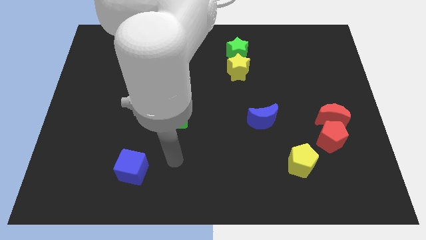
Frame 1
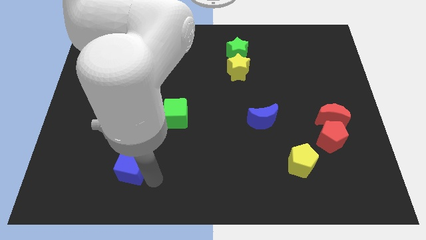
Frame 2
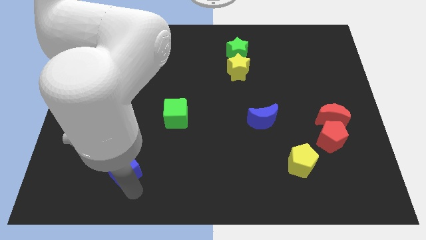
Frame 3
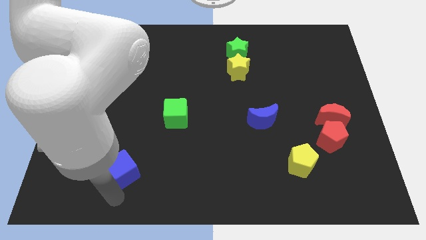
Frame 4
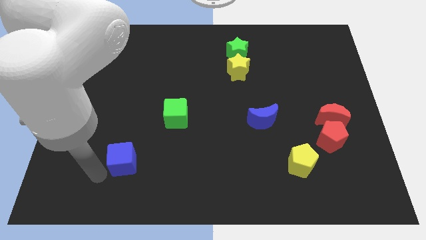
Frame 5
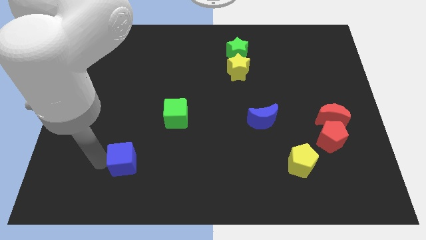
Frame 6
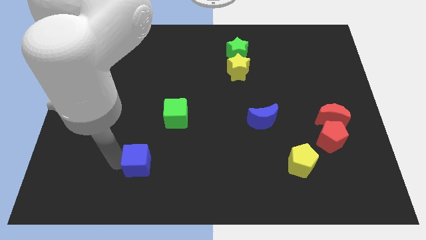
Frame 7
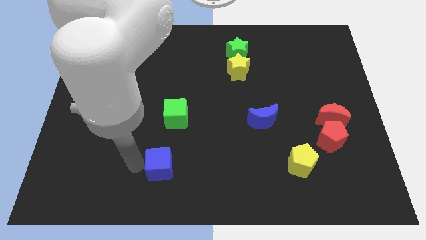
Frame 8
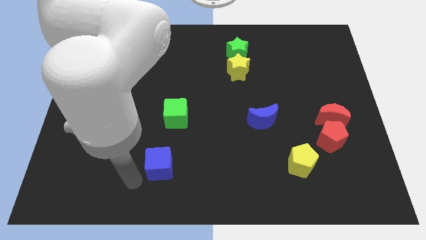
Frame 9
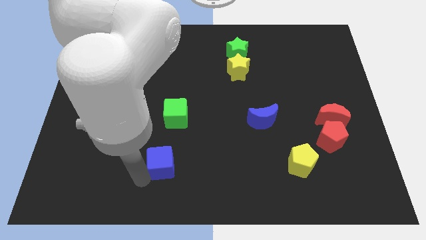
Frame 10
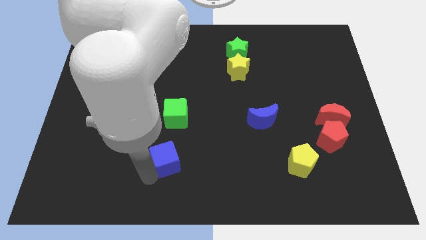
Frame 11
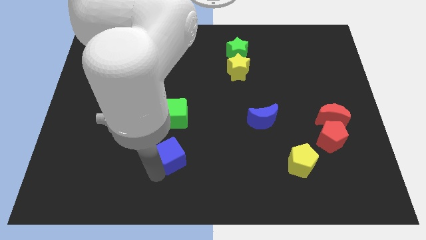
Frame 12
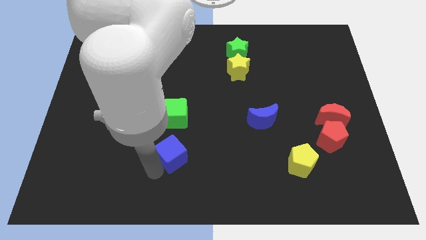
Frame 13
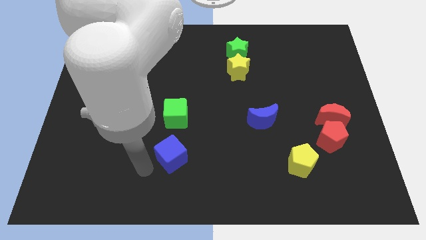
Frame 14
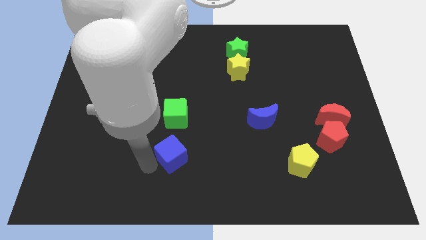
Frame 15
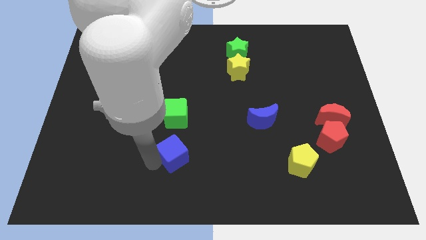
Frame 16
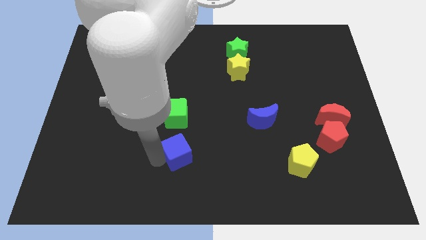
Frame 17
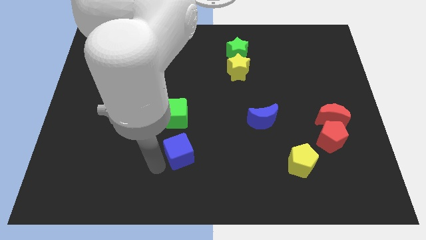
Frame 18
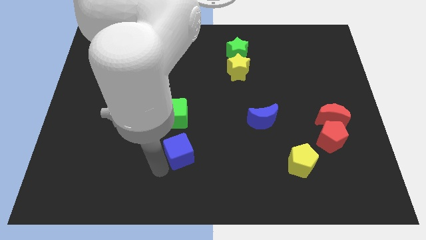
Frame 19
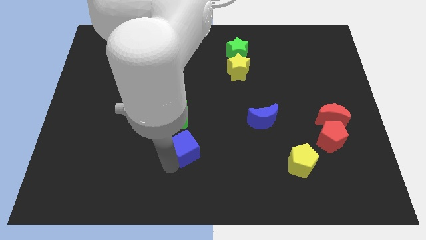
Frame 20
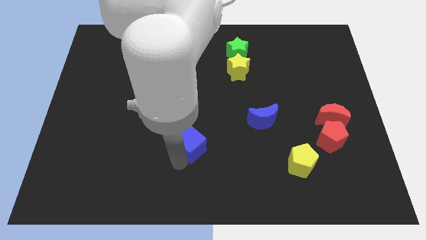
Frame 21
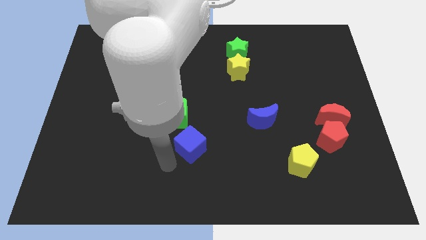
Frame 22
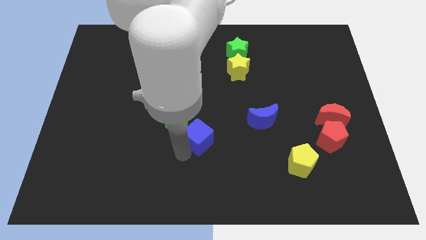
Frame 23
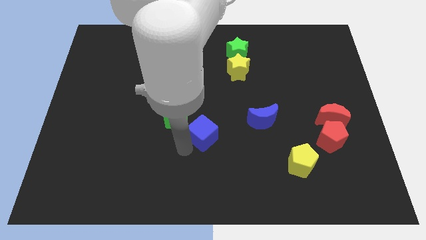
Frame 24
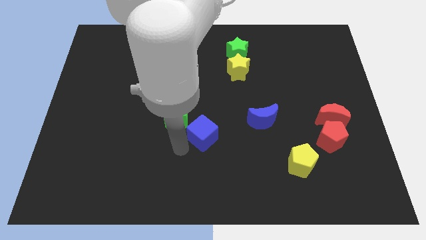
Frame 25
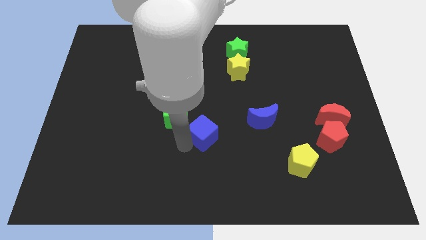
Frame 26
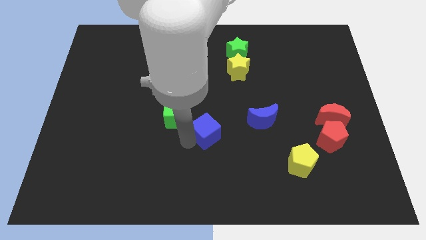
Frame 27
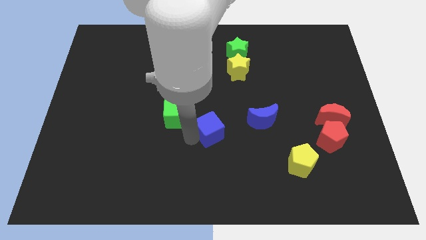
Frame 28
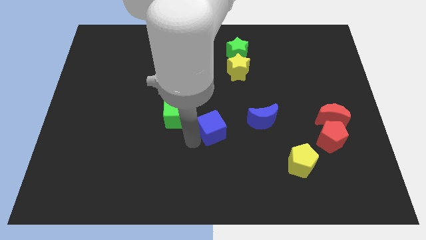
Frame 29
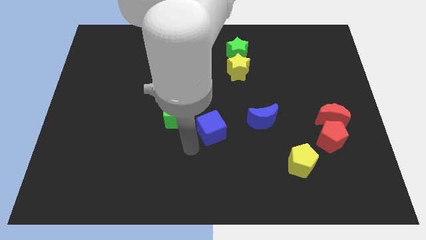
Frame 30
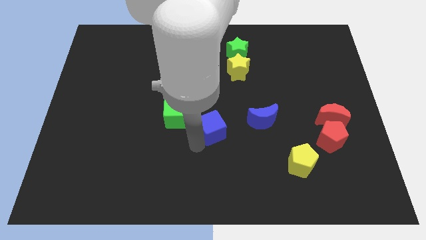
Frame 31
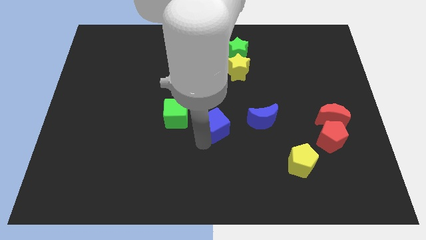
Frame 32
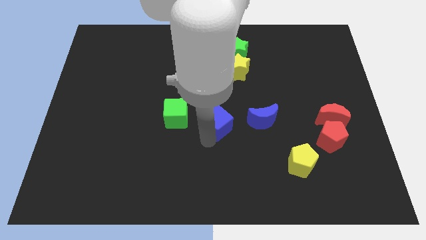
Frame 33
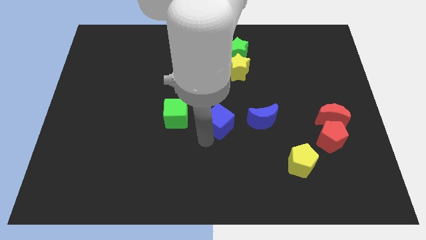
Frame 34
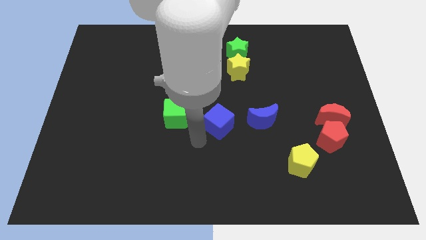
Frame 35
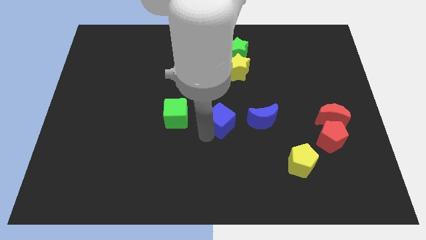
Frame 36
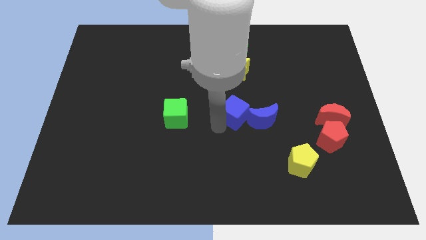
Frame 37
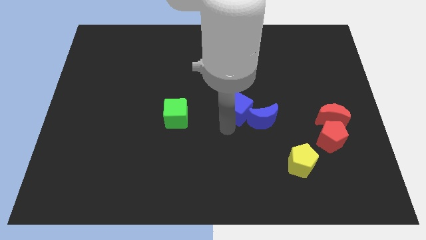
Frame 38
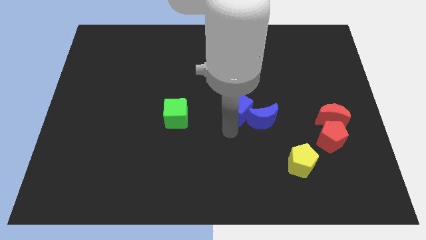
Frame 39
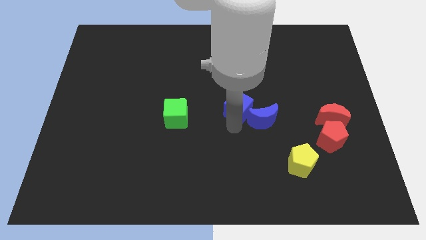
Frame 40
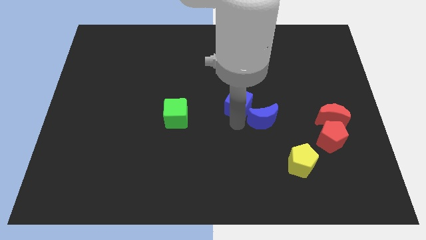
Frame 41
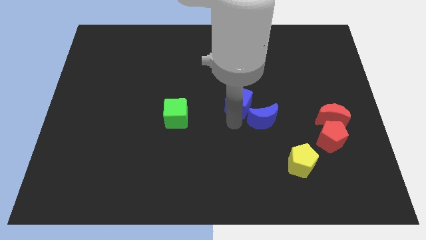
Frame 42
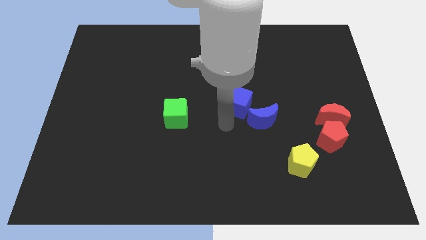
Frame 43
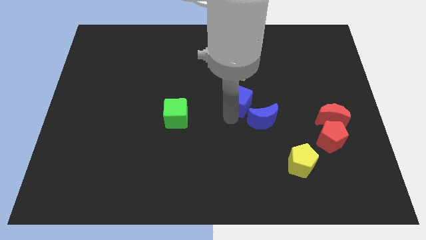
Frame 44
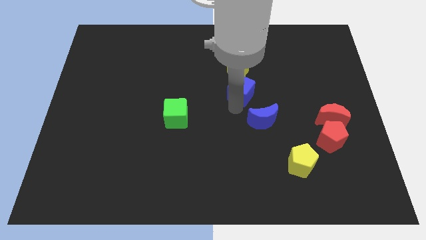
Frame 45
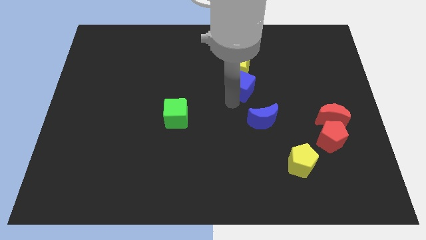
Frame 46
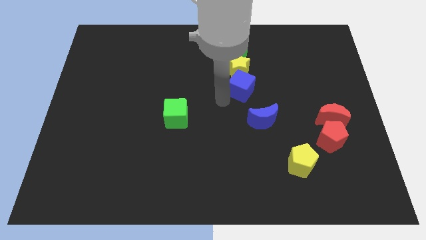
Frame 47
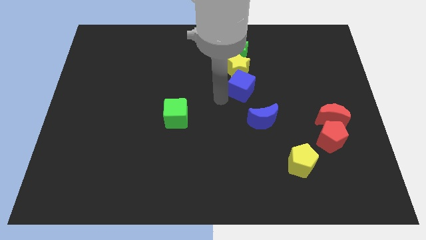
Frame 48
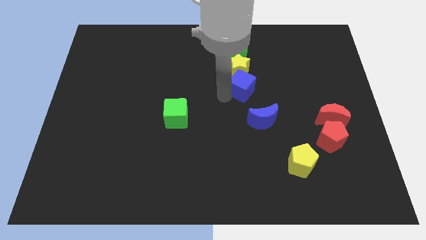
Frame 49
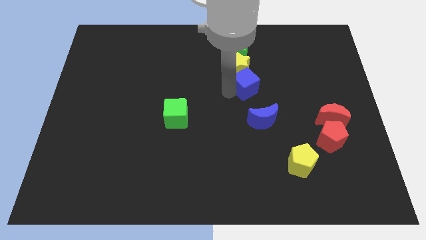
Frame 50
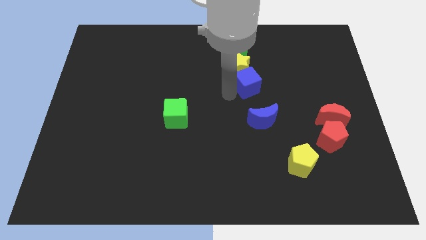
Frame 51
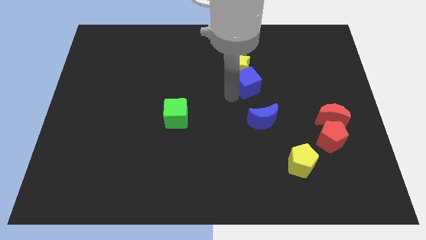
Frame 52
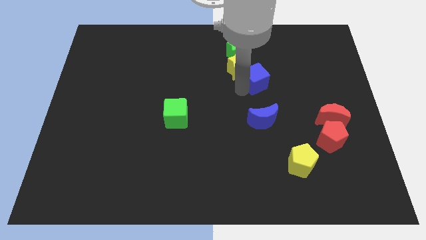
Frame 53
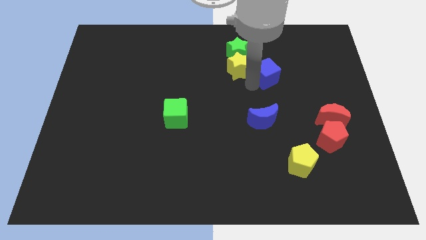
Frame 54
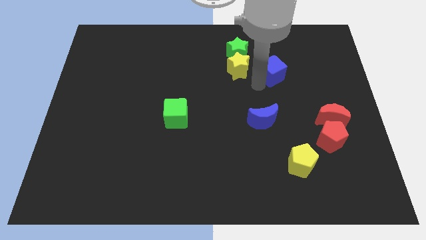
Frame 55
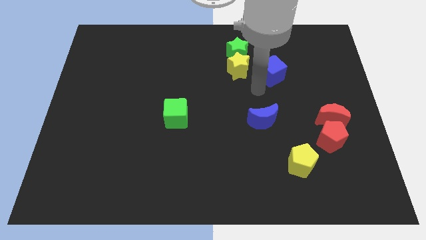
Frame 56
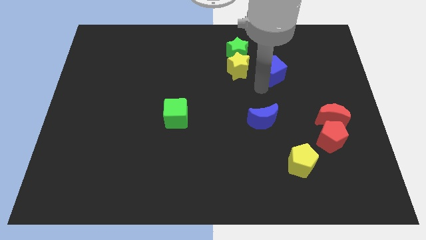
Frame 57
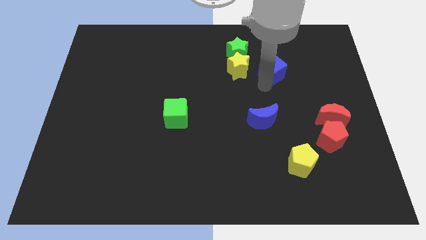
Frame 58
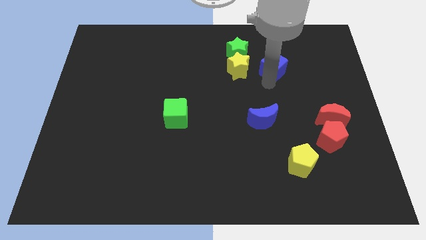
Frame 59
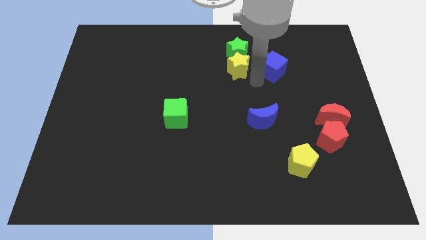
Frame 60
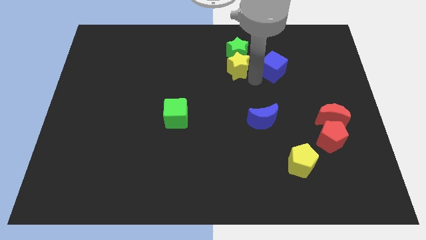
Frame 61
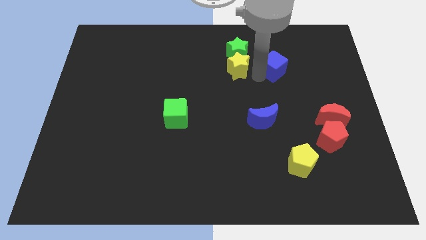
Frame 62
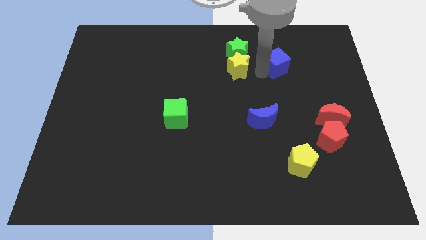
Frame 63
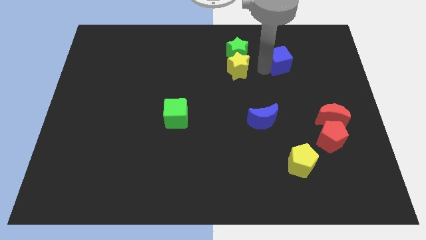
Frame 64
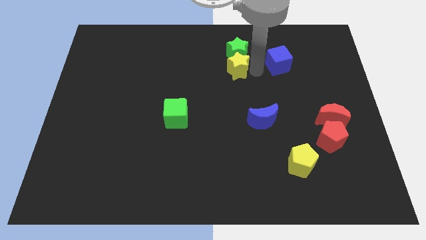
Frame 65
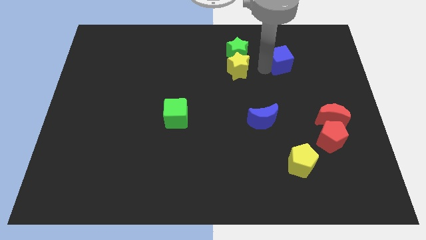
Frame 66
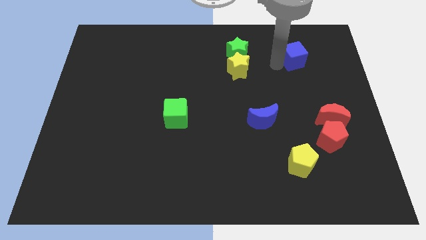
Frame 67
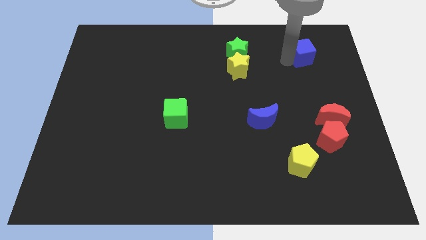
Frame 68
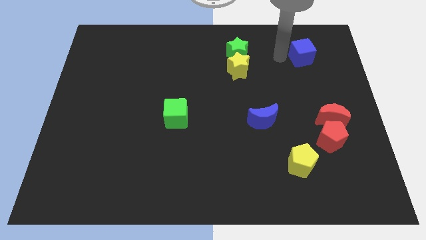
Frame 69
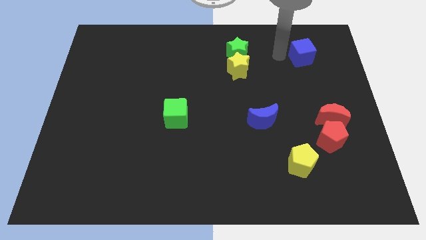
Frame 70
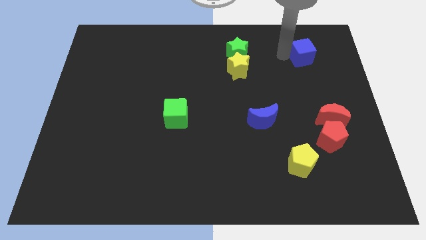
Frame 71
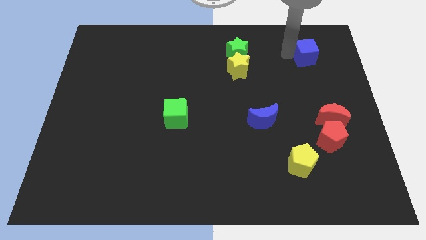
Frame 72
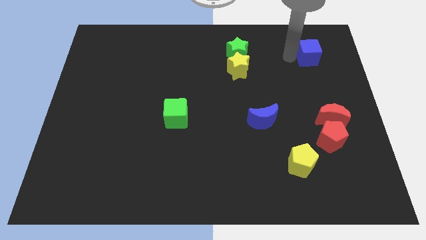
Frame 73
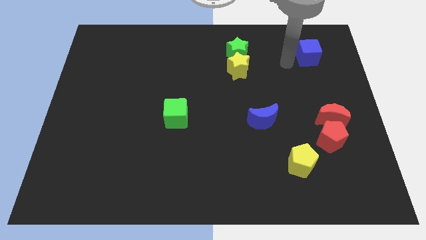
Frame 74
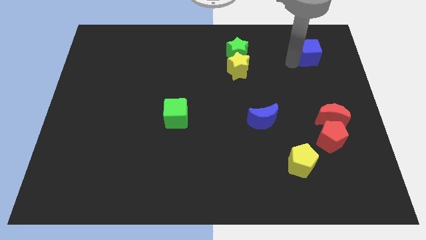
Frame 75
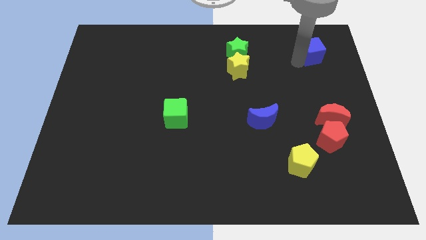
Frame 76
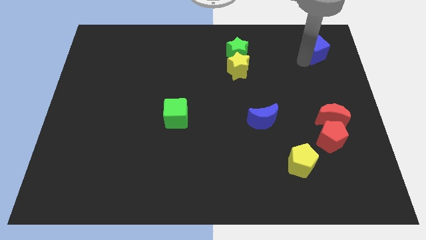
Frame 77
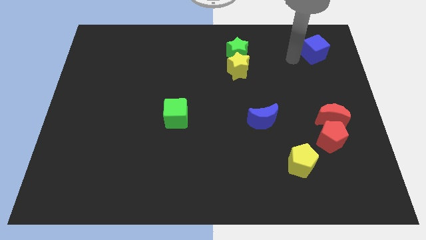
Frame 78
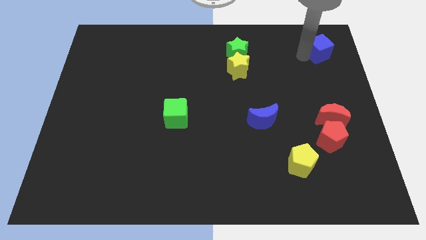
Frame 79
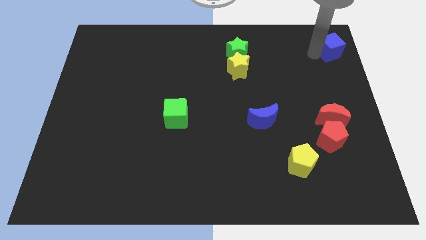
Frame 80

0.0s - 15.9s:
put the blue cube to the top right of the board
